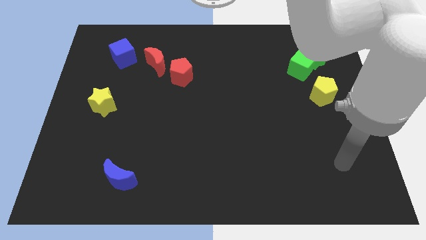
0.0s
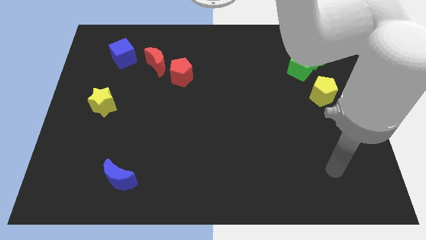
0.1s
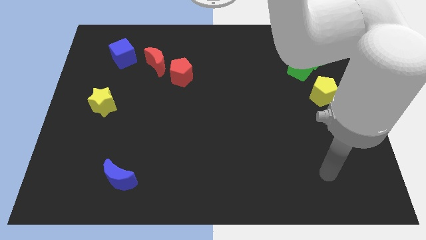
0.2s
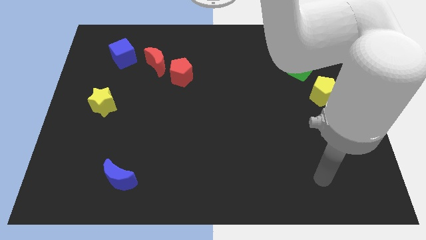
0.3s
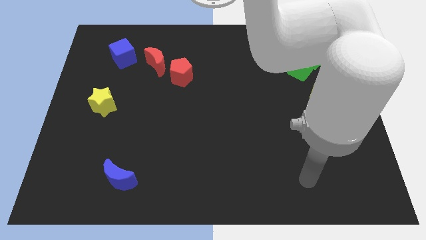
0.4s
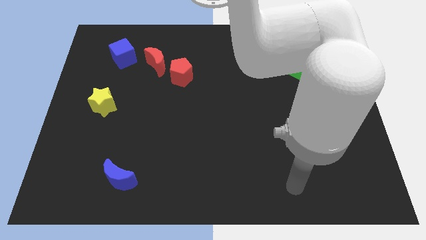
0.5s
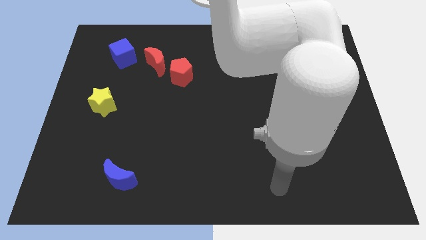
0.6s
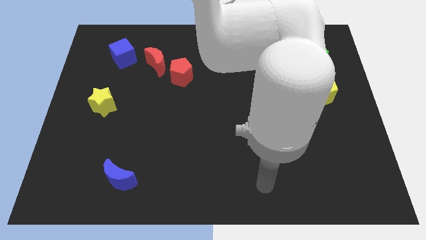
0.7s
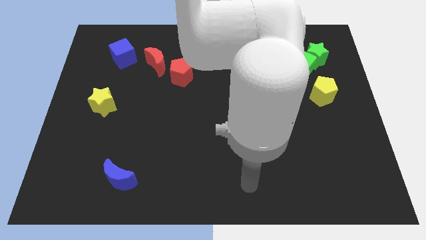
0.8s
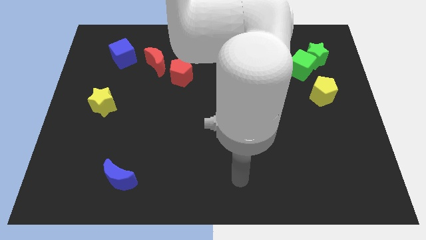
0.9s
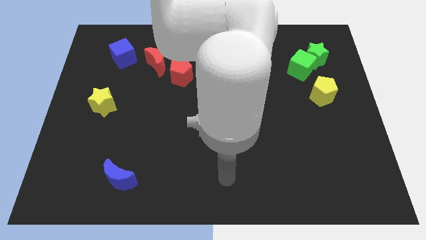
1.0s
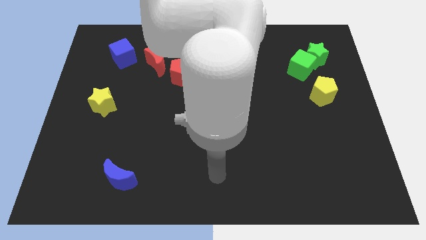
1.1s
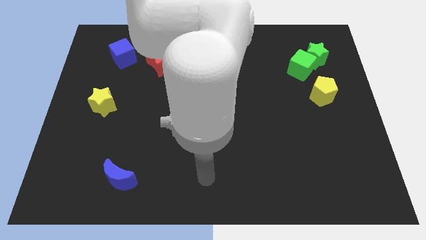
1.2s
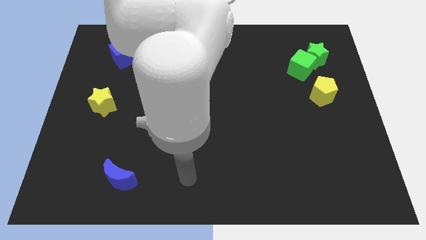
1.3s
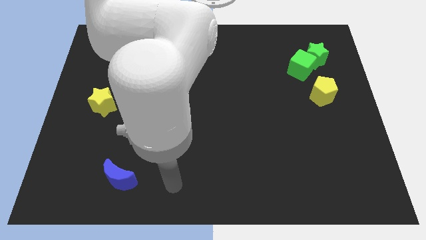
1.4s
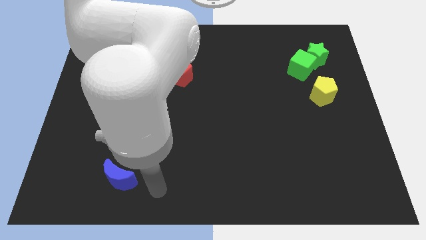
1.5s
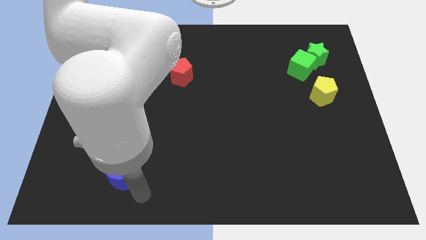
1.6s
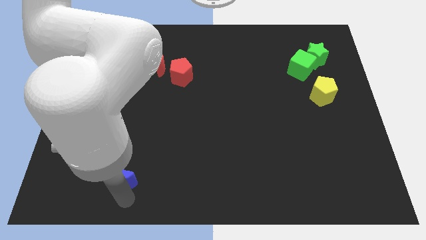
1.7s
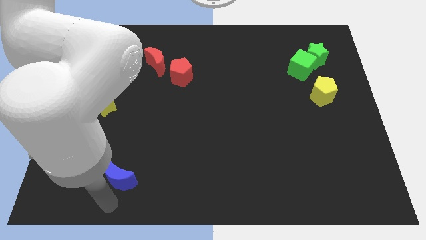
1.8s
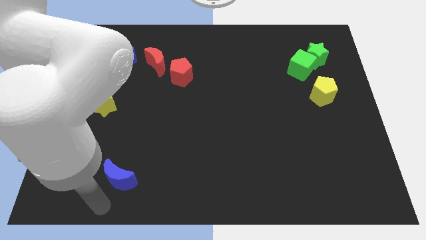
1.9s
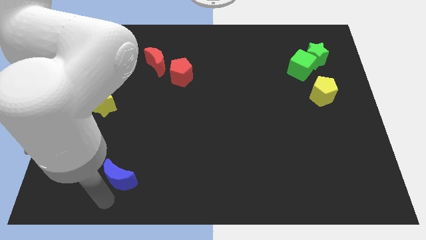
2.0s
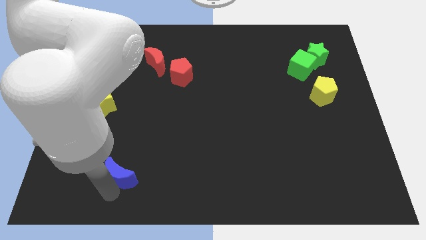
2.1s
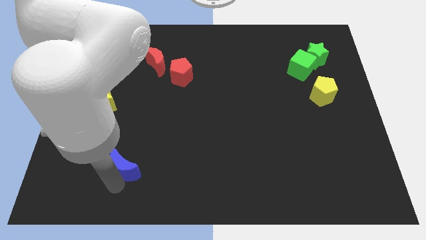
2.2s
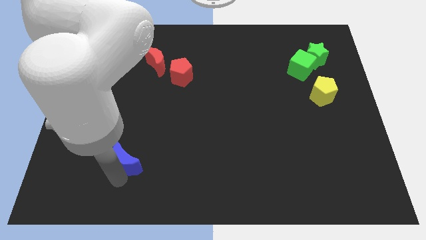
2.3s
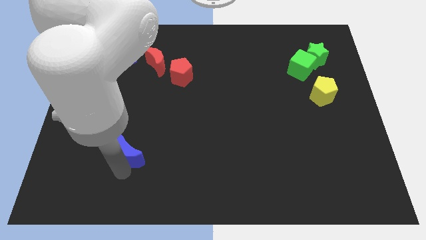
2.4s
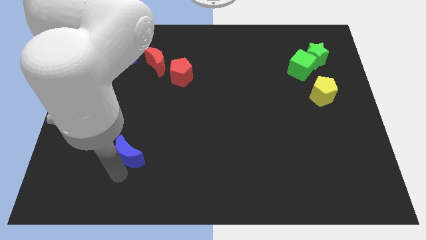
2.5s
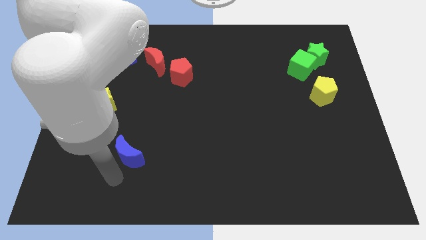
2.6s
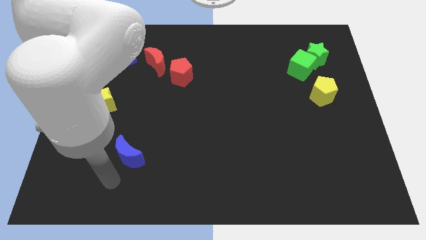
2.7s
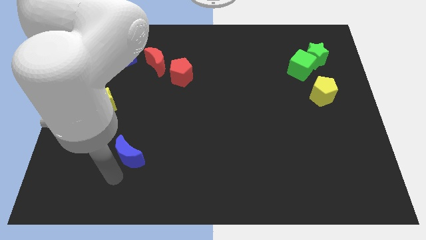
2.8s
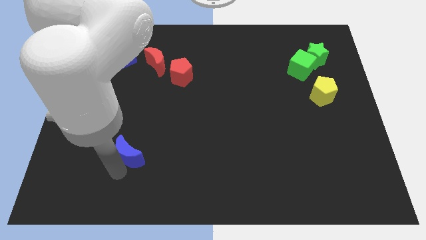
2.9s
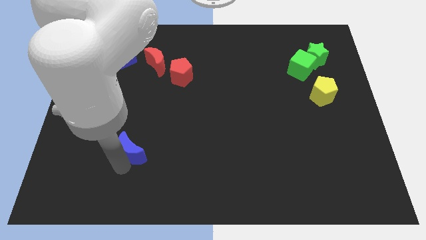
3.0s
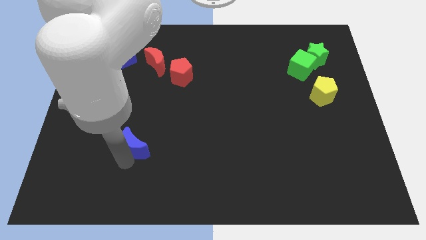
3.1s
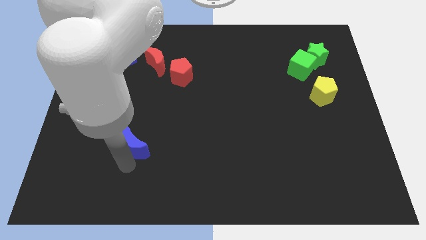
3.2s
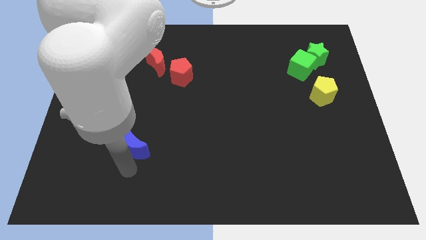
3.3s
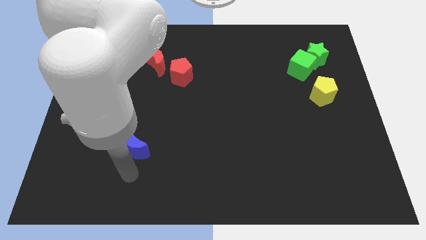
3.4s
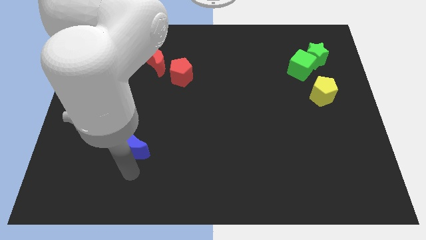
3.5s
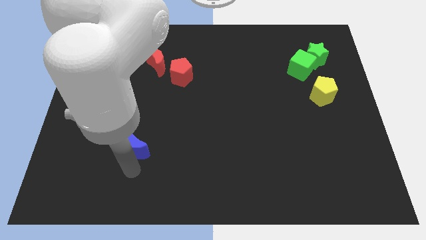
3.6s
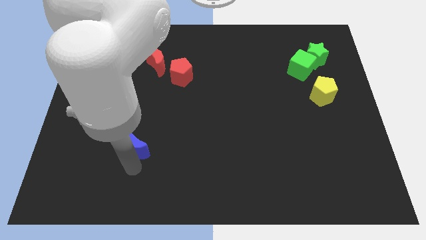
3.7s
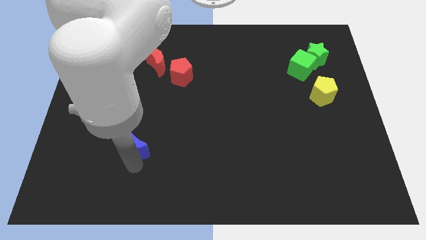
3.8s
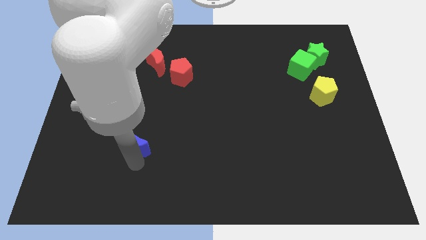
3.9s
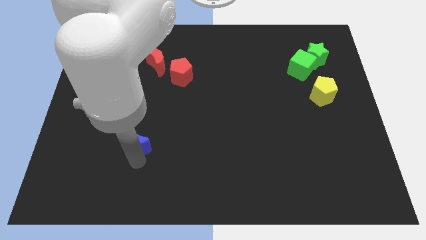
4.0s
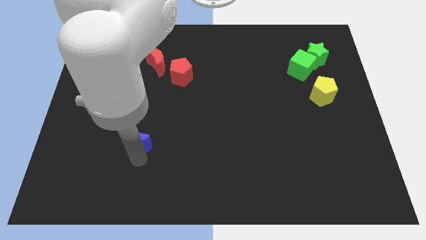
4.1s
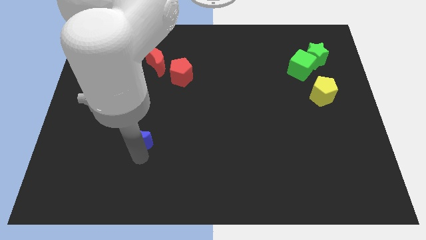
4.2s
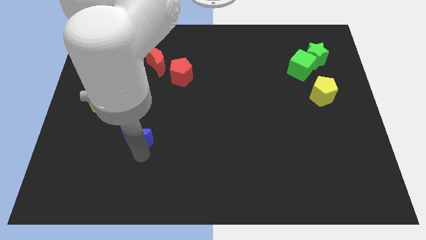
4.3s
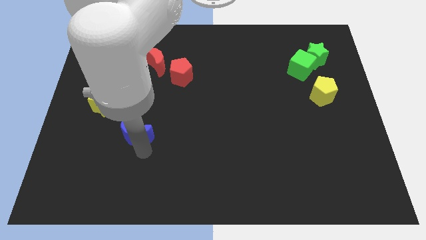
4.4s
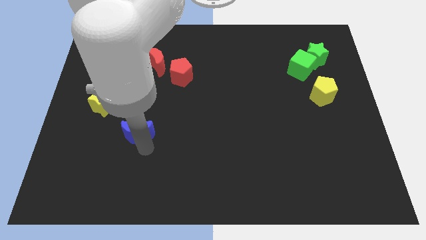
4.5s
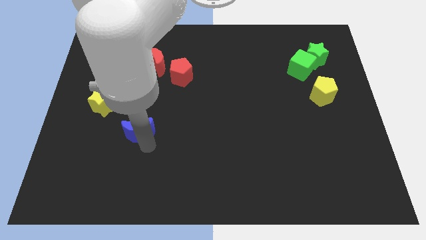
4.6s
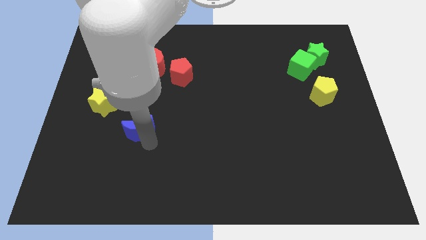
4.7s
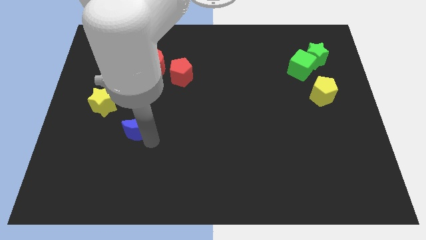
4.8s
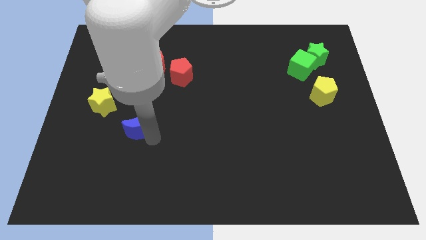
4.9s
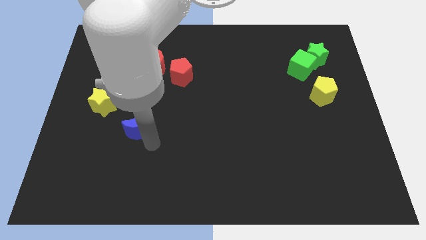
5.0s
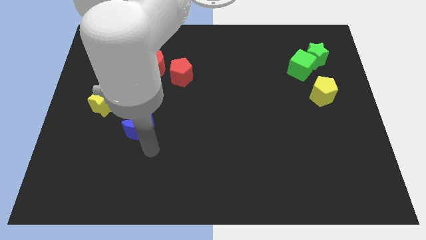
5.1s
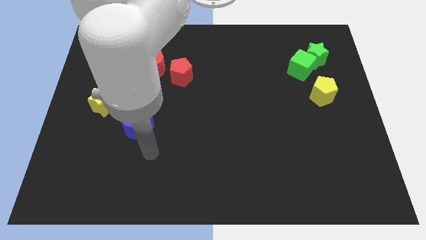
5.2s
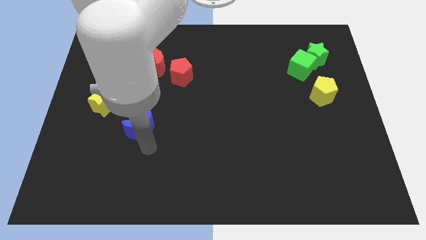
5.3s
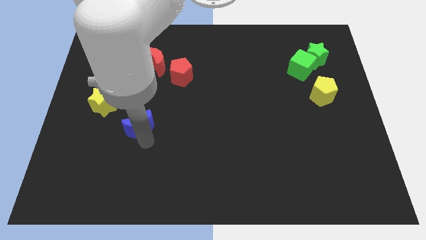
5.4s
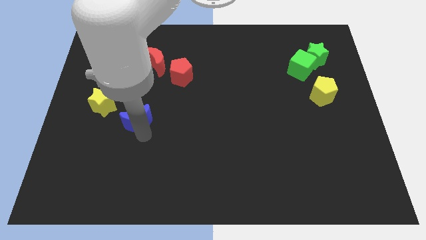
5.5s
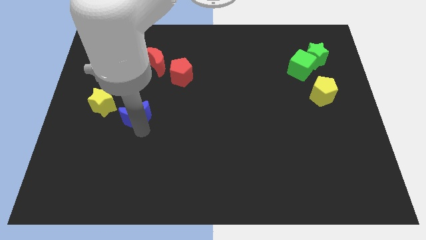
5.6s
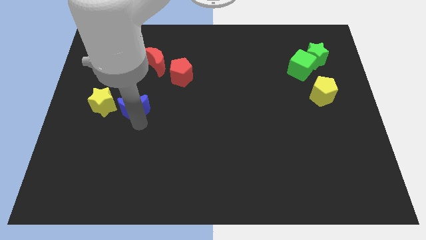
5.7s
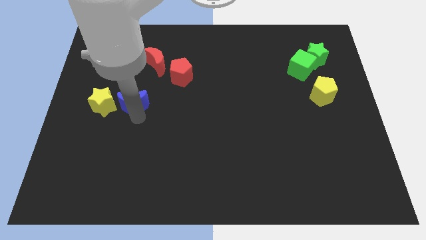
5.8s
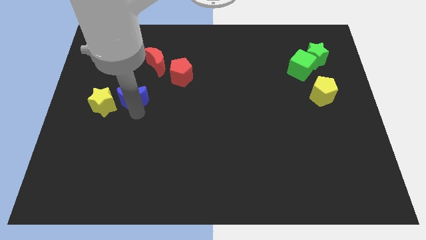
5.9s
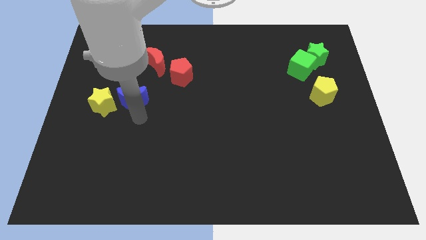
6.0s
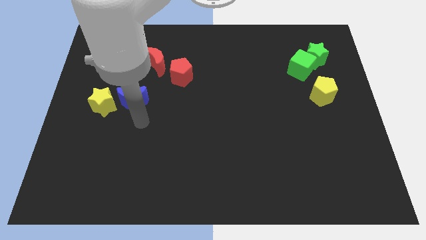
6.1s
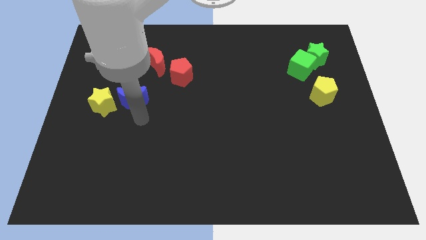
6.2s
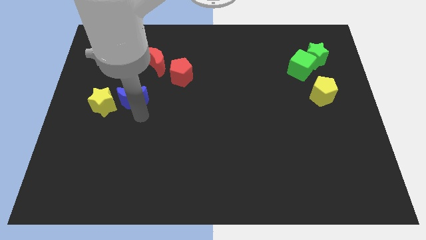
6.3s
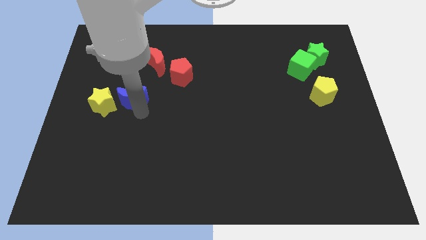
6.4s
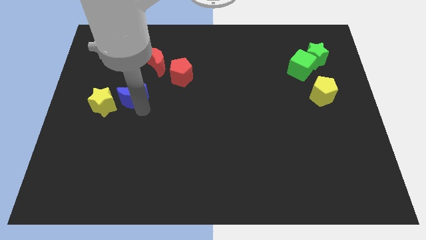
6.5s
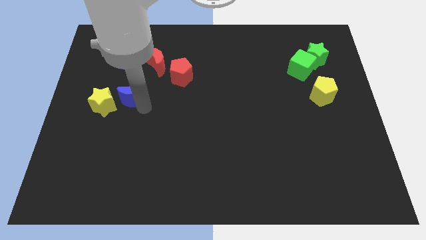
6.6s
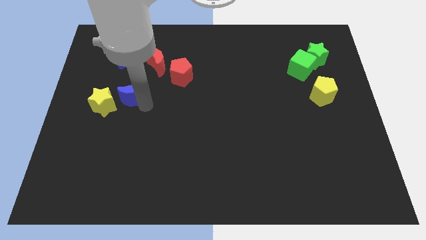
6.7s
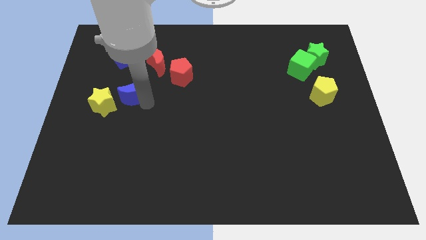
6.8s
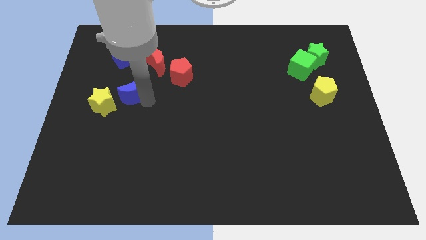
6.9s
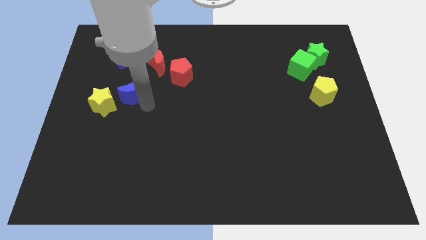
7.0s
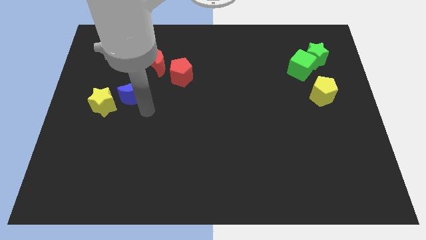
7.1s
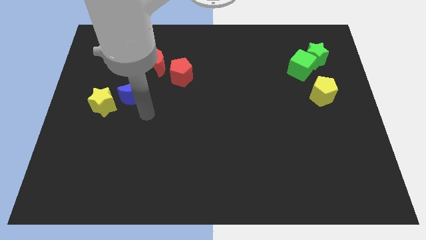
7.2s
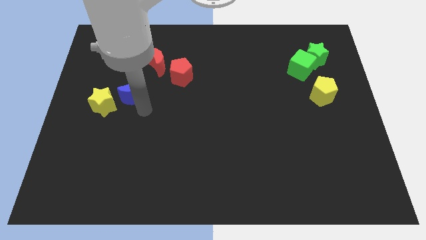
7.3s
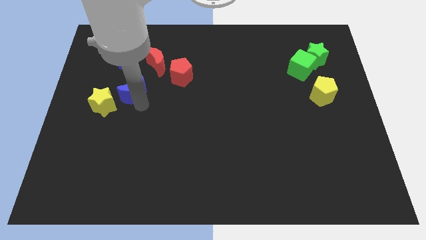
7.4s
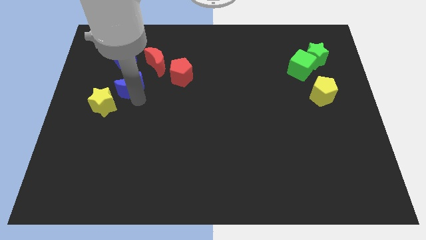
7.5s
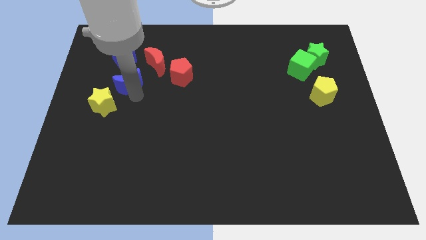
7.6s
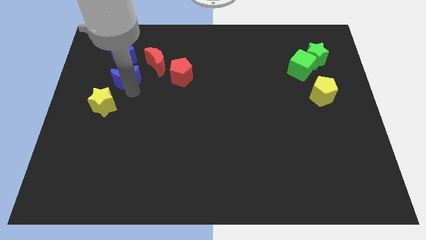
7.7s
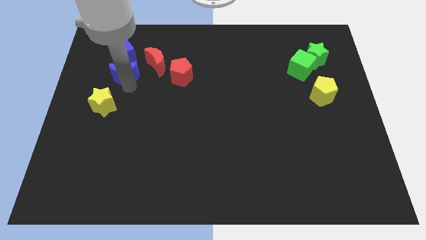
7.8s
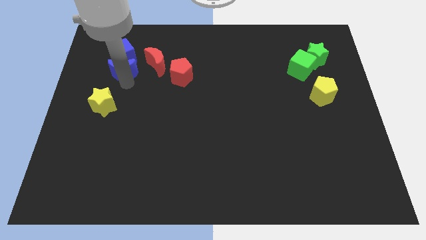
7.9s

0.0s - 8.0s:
move the blue moon close to the blue cube
